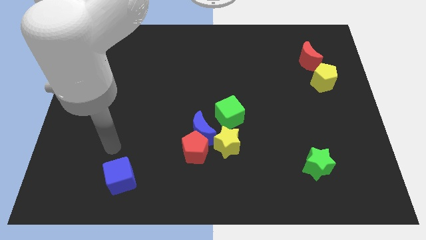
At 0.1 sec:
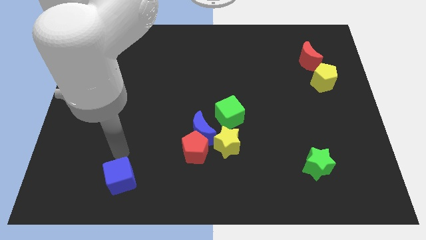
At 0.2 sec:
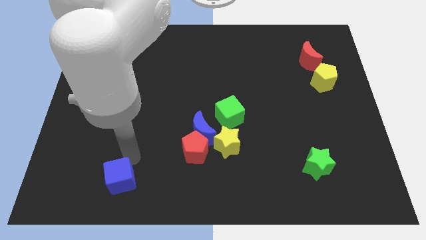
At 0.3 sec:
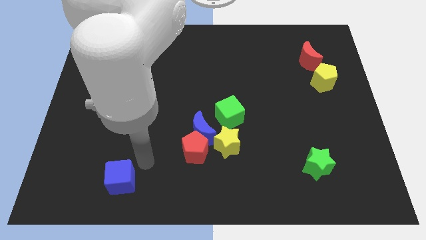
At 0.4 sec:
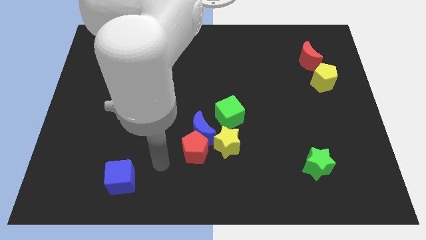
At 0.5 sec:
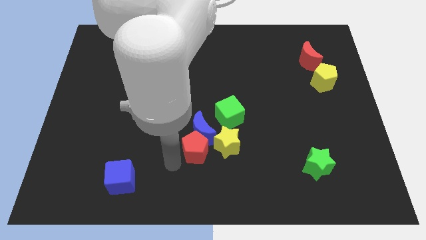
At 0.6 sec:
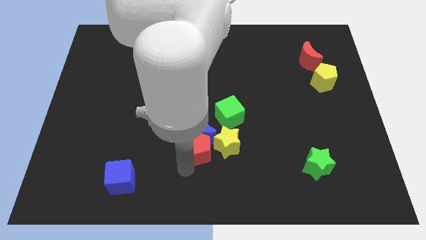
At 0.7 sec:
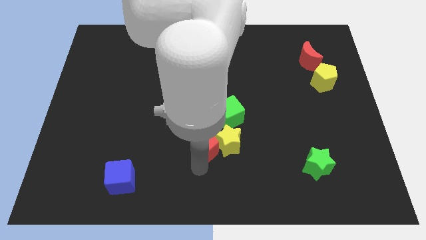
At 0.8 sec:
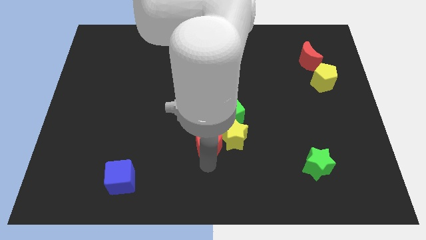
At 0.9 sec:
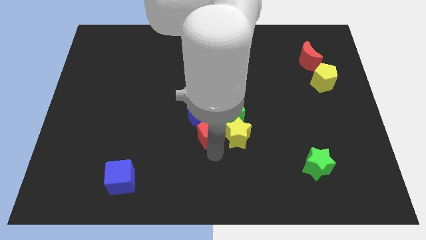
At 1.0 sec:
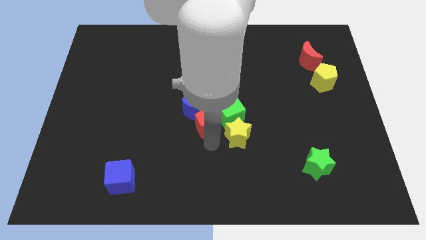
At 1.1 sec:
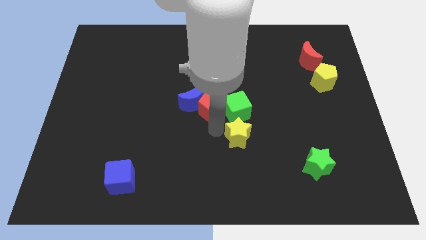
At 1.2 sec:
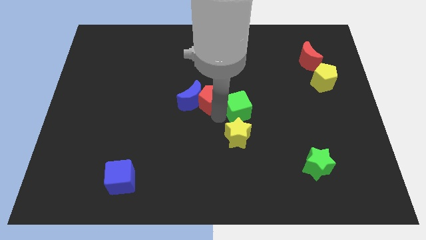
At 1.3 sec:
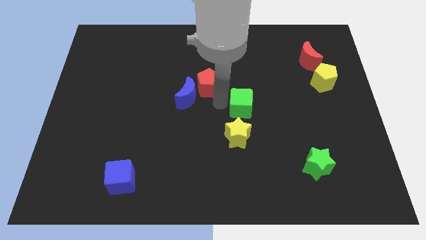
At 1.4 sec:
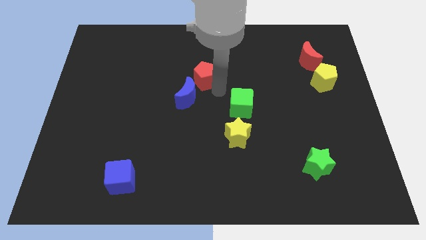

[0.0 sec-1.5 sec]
separate the red pentagon from the blue moon and yellow star

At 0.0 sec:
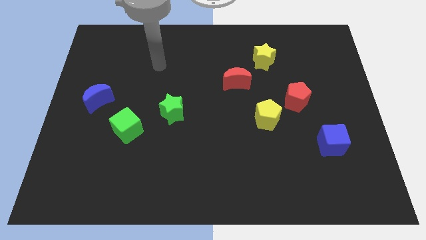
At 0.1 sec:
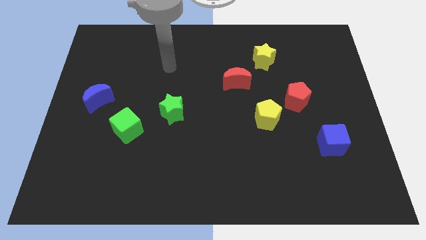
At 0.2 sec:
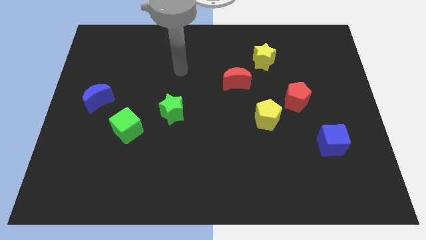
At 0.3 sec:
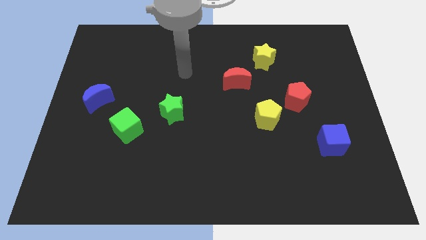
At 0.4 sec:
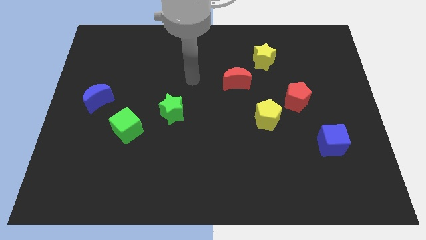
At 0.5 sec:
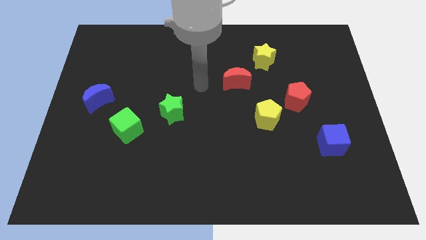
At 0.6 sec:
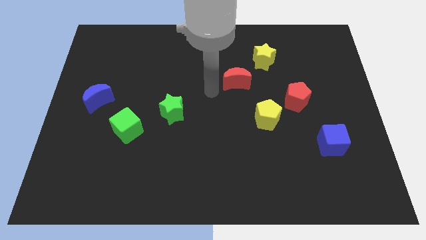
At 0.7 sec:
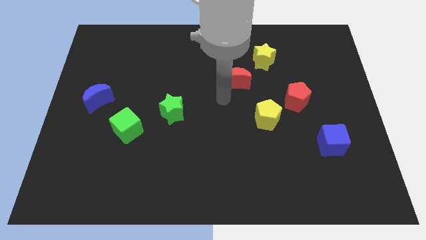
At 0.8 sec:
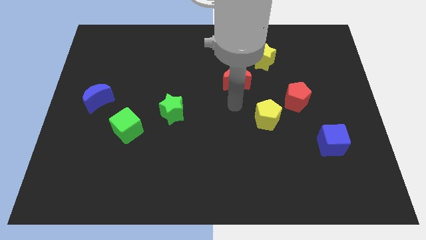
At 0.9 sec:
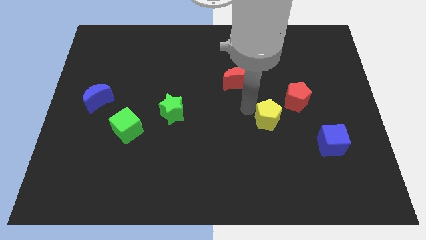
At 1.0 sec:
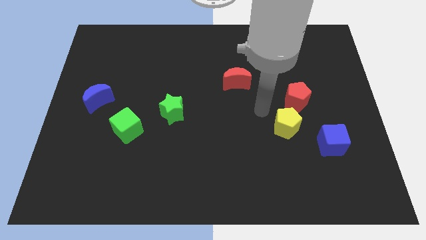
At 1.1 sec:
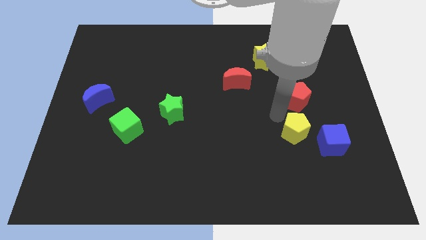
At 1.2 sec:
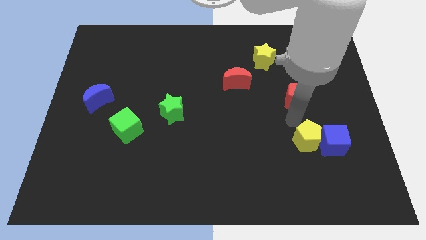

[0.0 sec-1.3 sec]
pull the red pentagon apart from the yellow pentagon

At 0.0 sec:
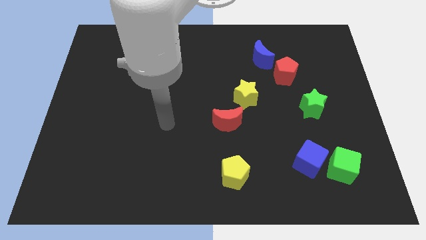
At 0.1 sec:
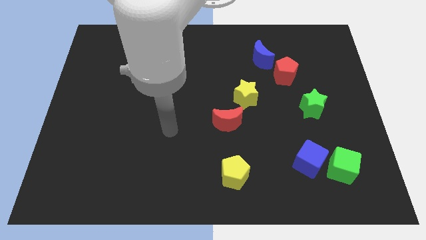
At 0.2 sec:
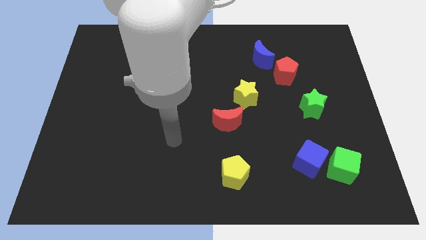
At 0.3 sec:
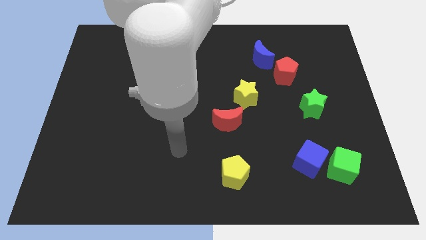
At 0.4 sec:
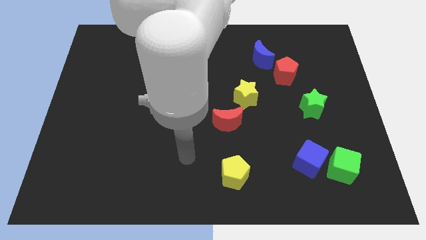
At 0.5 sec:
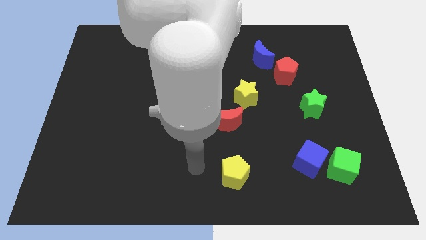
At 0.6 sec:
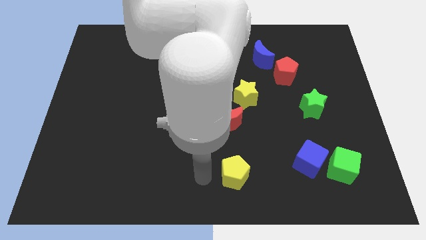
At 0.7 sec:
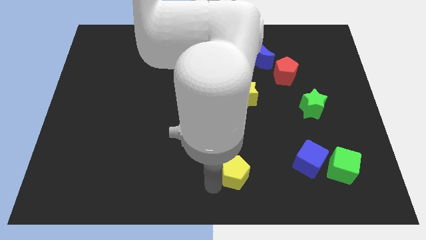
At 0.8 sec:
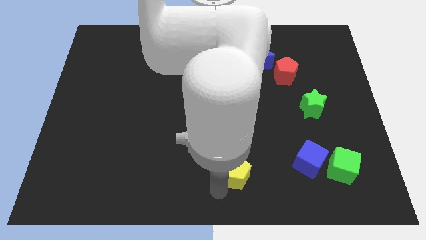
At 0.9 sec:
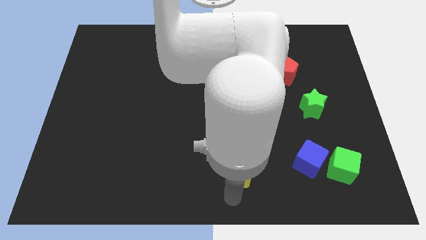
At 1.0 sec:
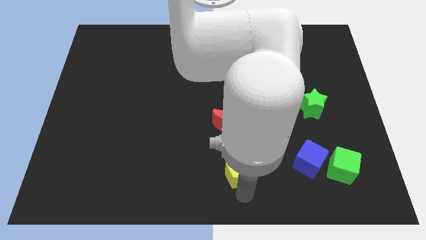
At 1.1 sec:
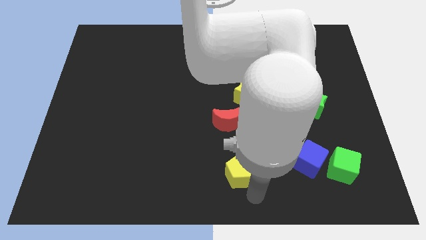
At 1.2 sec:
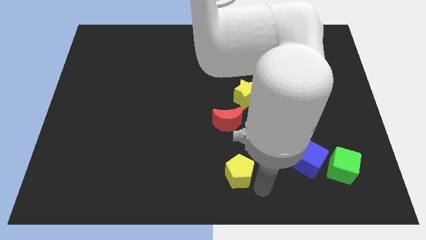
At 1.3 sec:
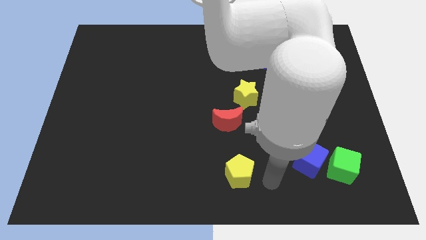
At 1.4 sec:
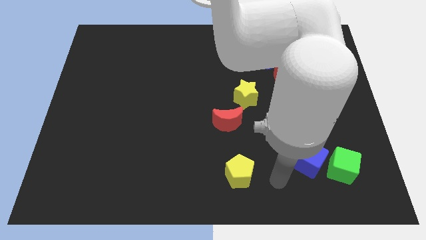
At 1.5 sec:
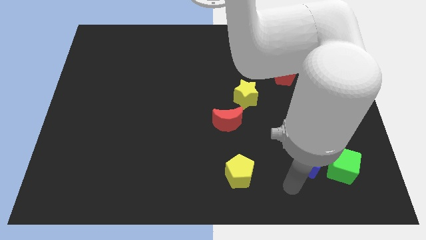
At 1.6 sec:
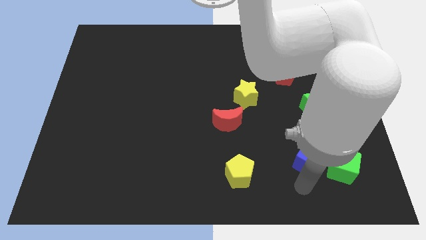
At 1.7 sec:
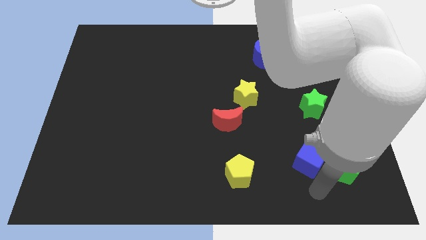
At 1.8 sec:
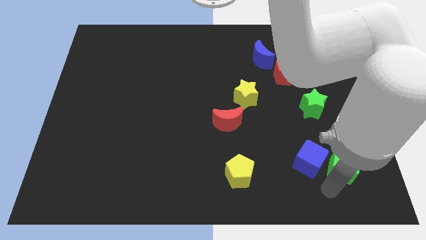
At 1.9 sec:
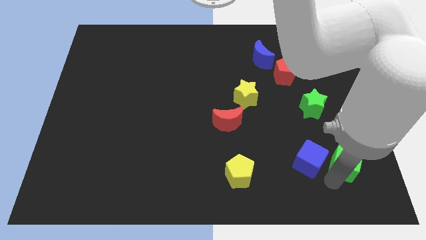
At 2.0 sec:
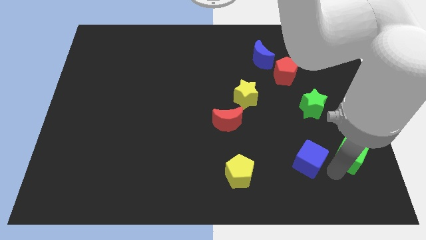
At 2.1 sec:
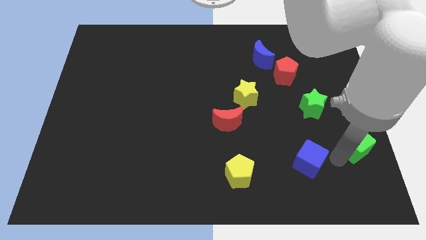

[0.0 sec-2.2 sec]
pull the blue cube apart from the green cube

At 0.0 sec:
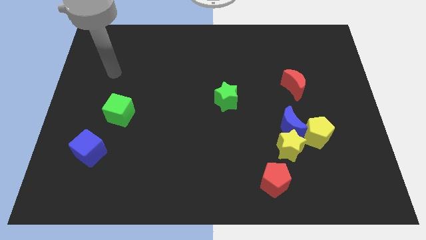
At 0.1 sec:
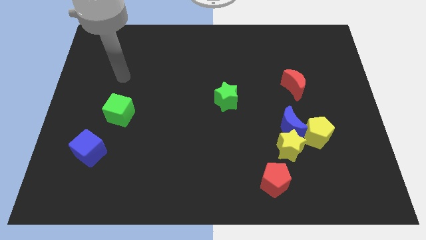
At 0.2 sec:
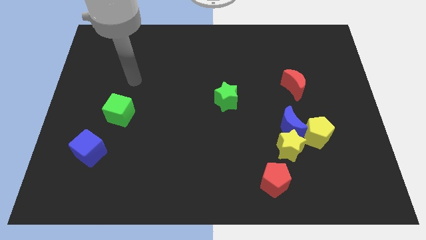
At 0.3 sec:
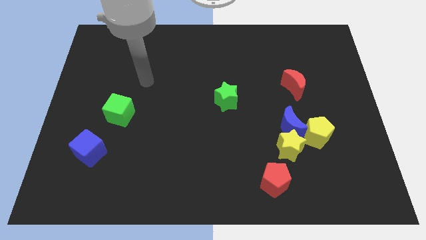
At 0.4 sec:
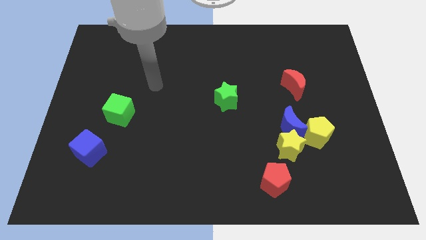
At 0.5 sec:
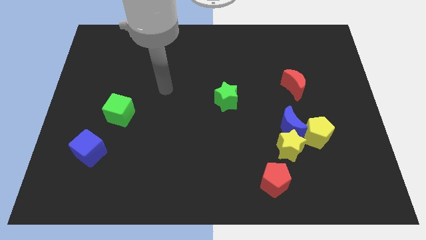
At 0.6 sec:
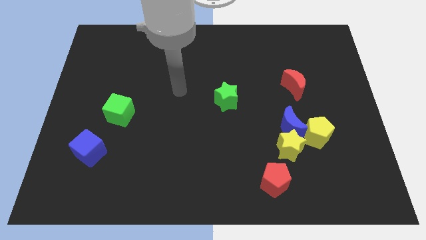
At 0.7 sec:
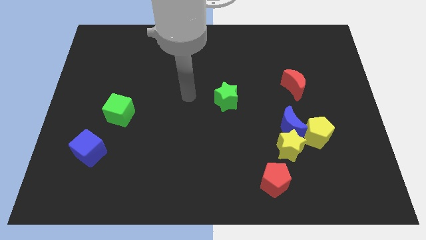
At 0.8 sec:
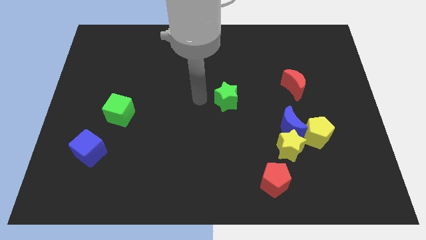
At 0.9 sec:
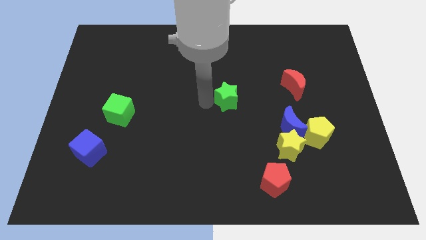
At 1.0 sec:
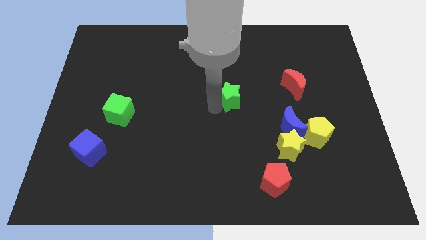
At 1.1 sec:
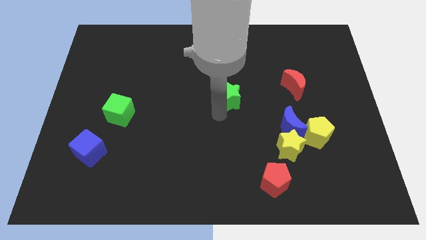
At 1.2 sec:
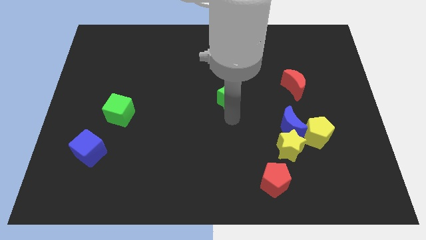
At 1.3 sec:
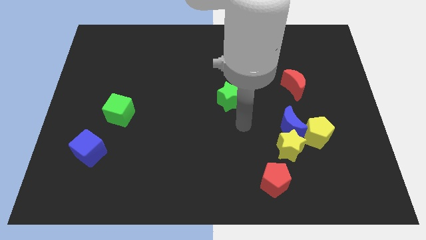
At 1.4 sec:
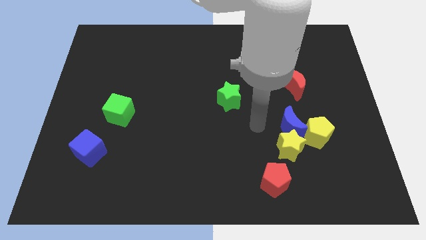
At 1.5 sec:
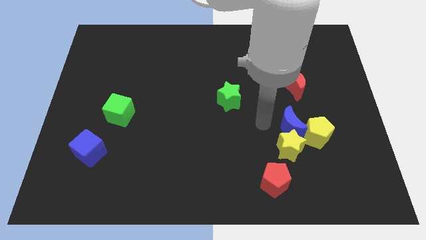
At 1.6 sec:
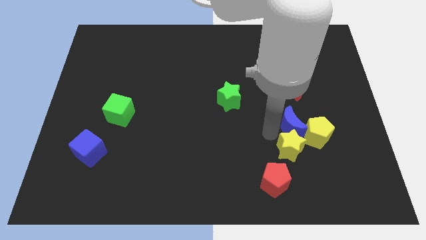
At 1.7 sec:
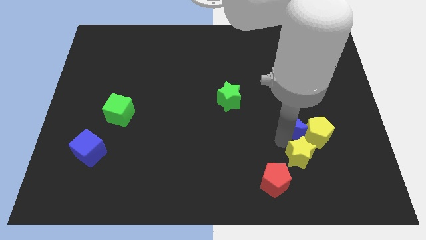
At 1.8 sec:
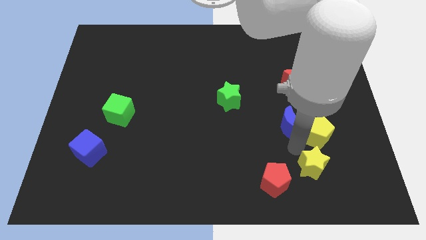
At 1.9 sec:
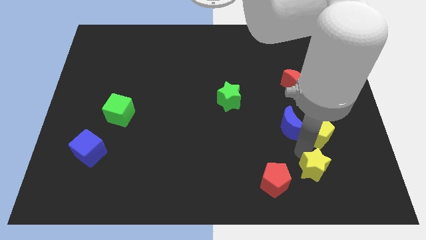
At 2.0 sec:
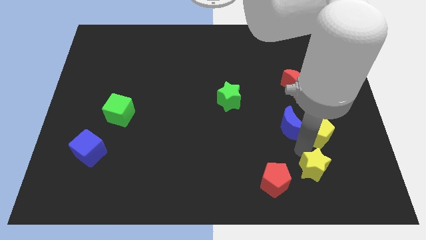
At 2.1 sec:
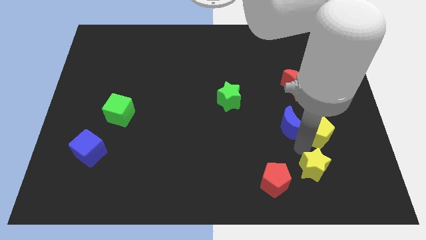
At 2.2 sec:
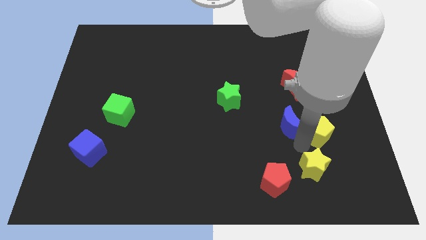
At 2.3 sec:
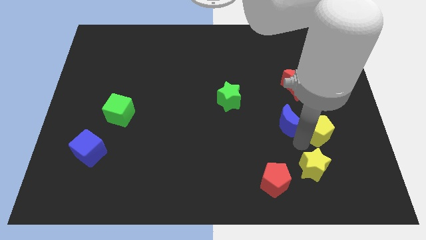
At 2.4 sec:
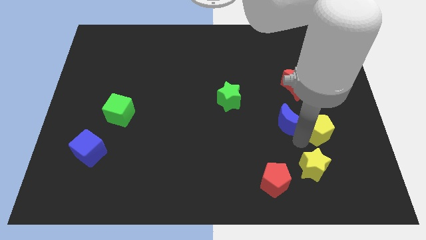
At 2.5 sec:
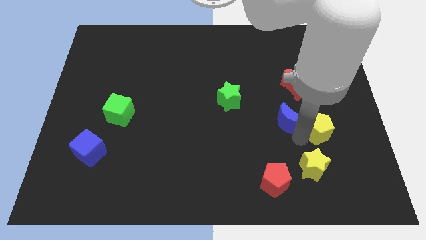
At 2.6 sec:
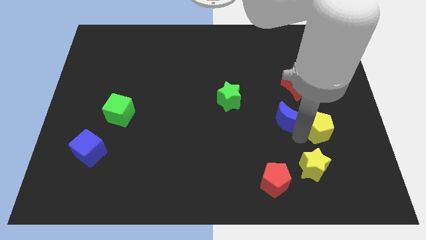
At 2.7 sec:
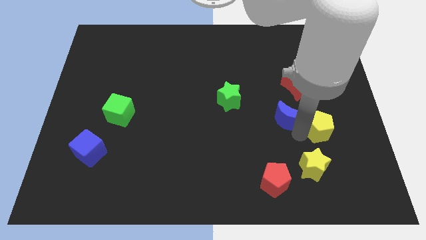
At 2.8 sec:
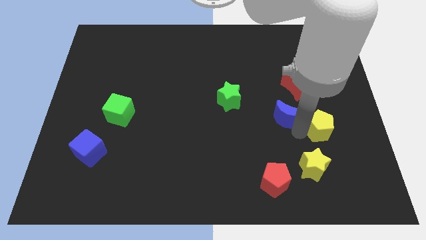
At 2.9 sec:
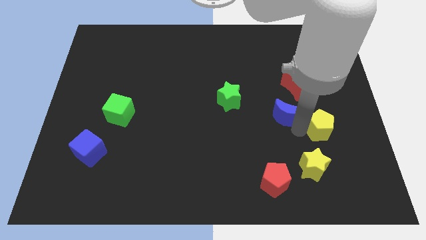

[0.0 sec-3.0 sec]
pull the blue moon apart from the yellow star and yellow pentagon

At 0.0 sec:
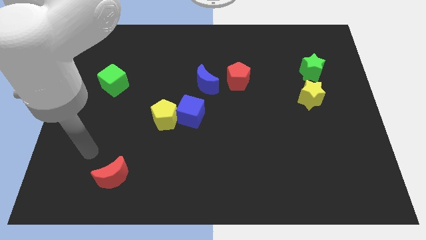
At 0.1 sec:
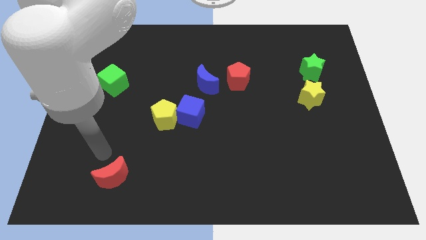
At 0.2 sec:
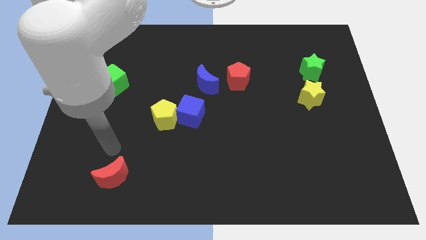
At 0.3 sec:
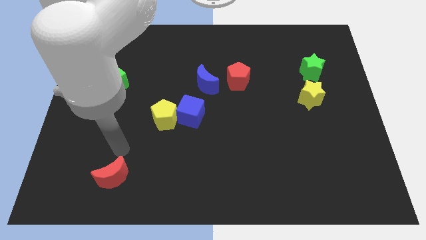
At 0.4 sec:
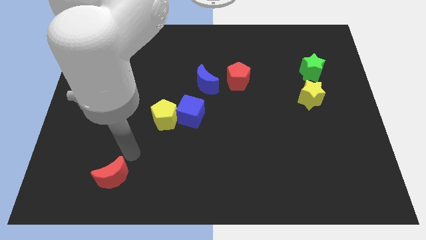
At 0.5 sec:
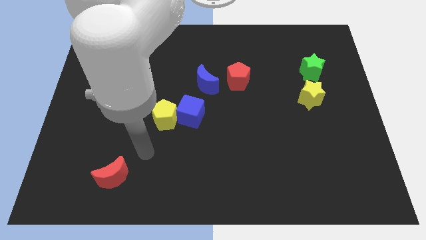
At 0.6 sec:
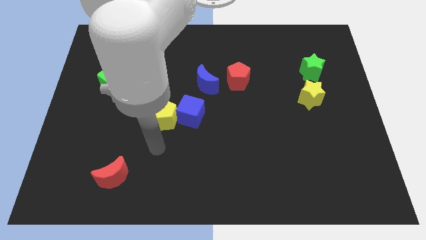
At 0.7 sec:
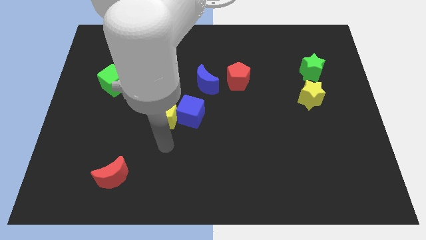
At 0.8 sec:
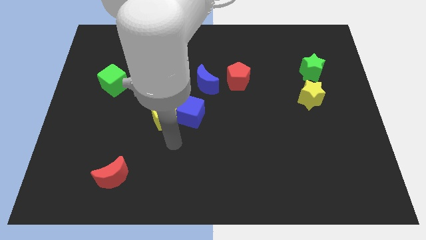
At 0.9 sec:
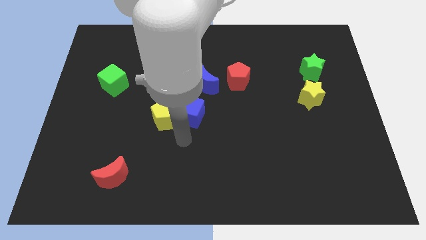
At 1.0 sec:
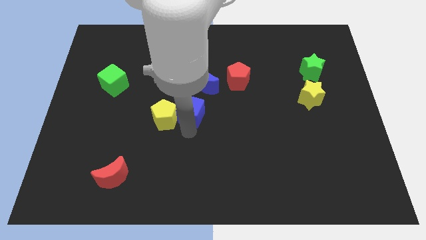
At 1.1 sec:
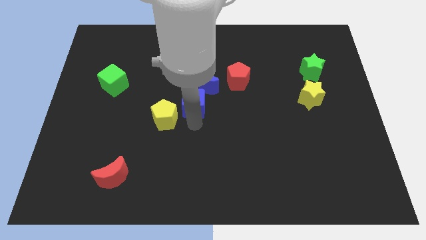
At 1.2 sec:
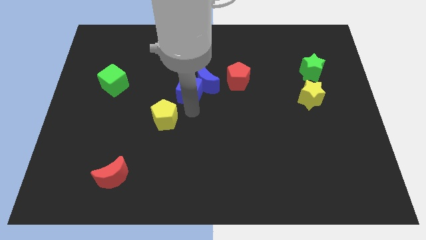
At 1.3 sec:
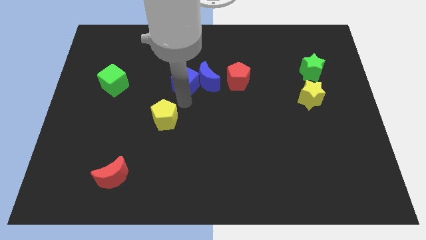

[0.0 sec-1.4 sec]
pull the yellow pentagon apart from the blue cube
